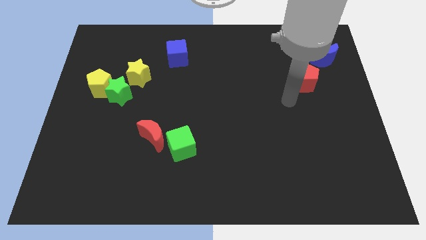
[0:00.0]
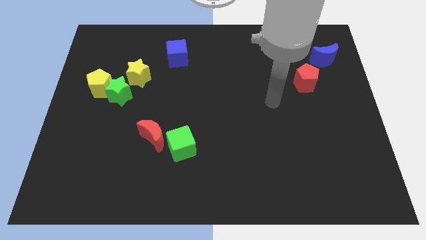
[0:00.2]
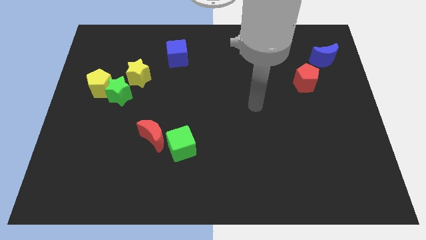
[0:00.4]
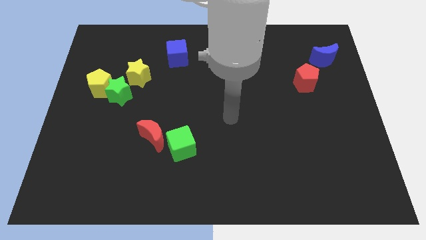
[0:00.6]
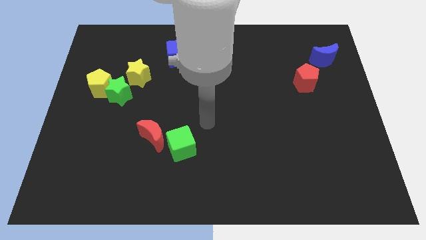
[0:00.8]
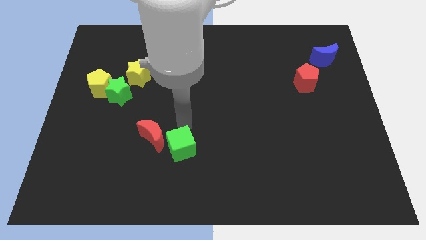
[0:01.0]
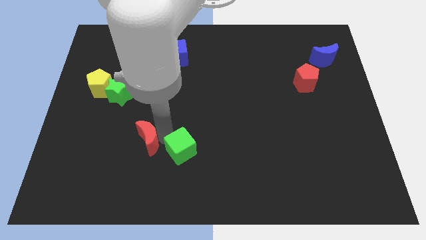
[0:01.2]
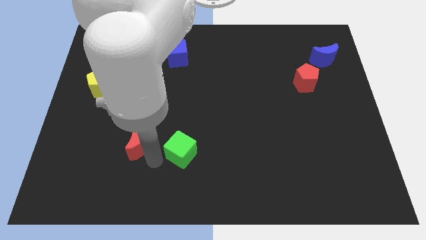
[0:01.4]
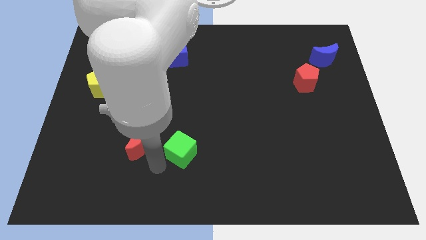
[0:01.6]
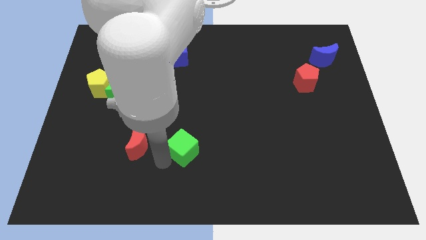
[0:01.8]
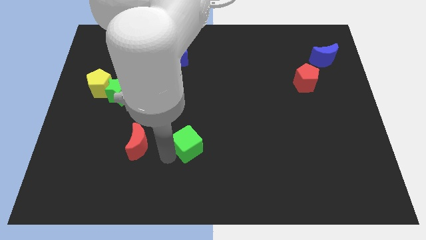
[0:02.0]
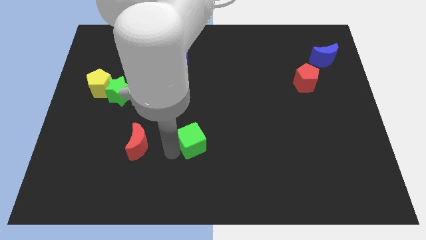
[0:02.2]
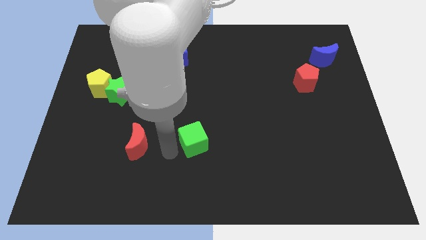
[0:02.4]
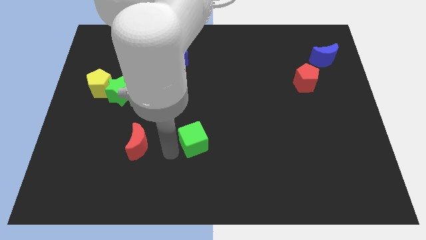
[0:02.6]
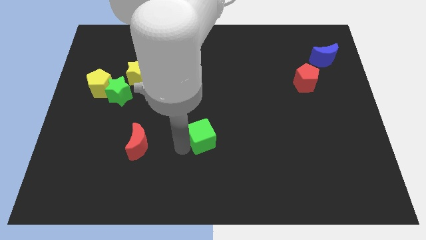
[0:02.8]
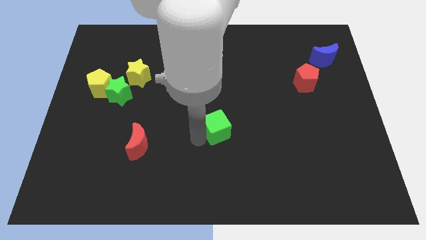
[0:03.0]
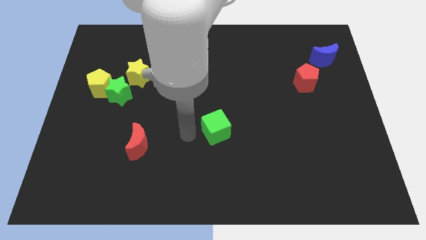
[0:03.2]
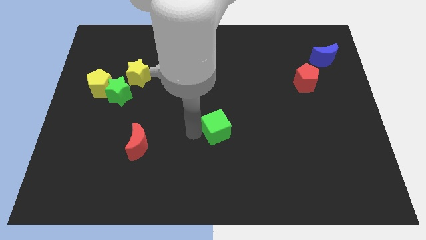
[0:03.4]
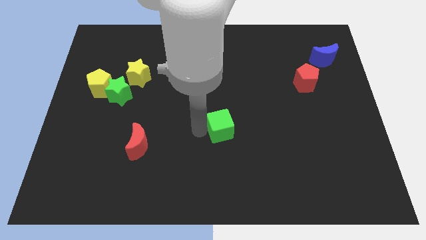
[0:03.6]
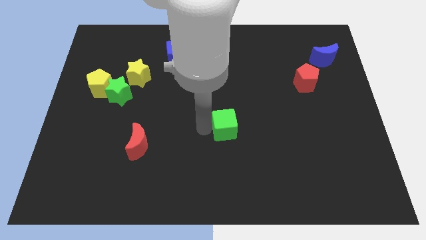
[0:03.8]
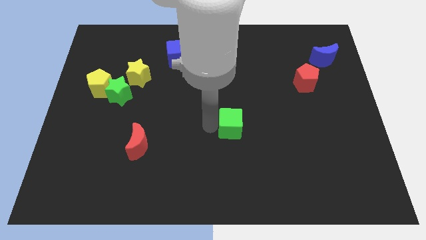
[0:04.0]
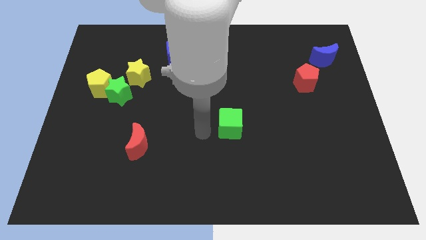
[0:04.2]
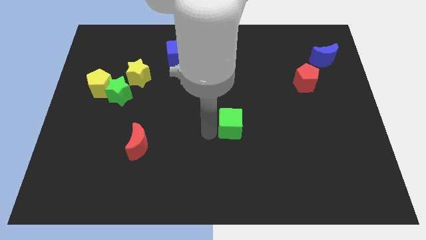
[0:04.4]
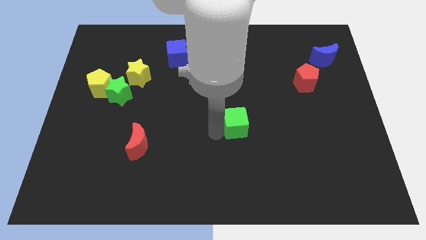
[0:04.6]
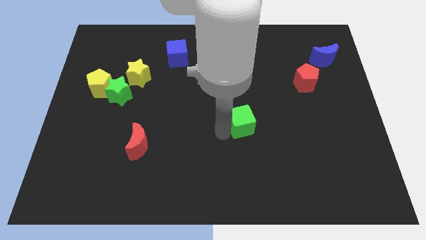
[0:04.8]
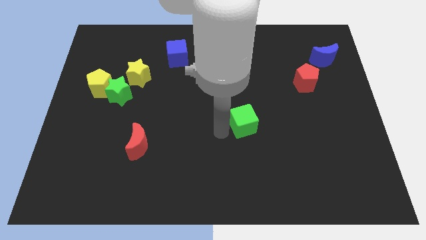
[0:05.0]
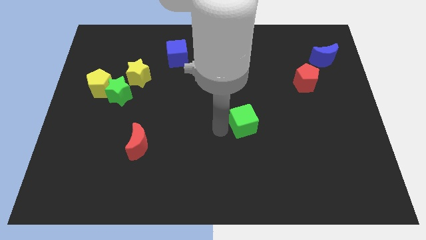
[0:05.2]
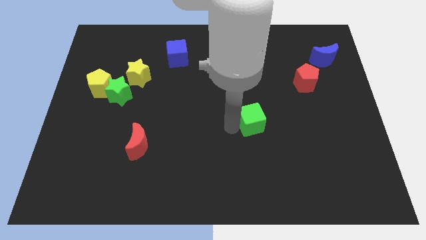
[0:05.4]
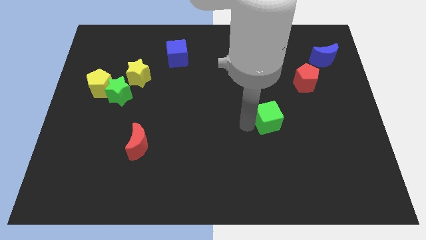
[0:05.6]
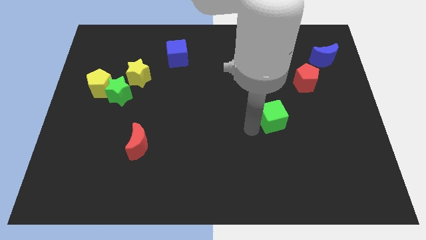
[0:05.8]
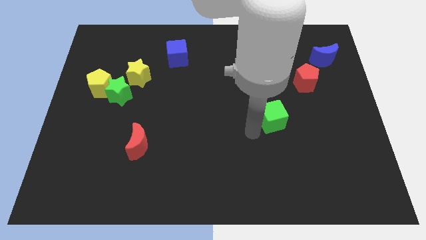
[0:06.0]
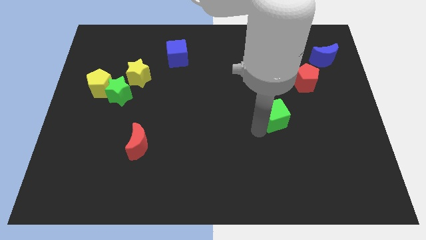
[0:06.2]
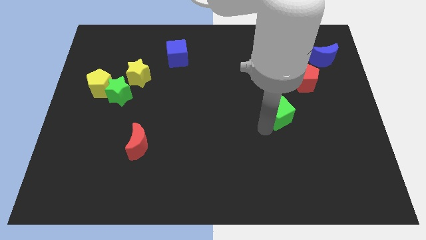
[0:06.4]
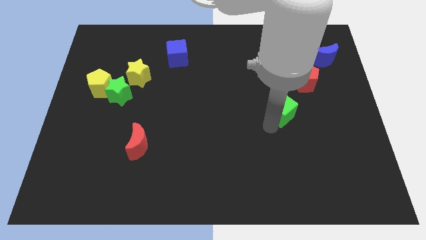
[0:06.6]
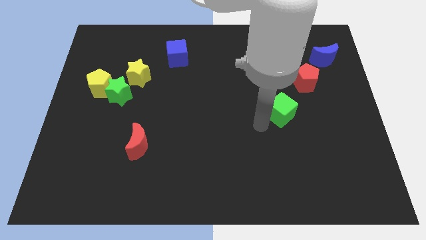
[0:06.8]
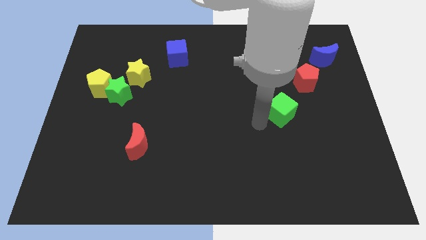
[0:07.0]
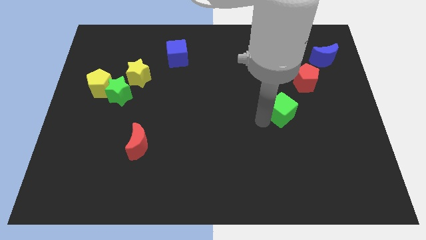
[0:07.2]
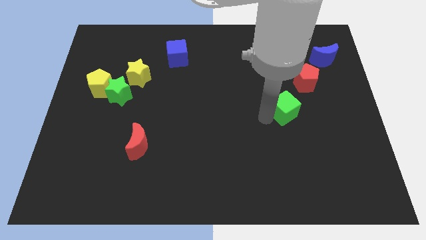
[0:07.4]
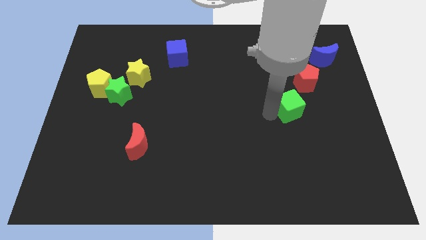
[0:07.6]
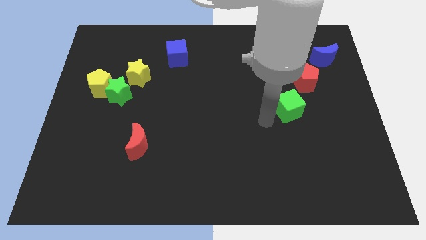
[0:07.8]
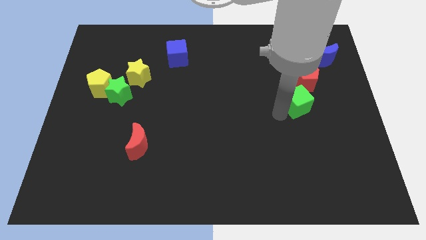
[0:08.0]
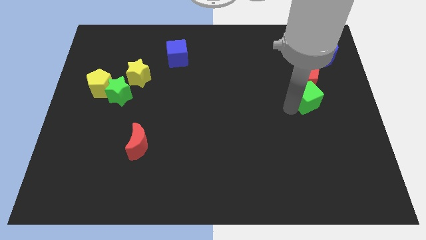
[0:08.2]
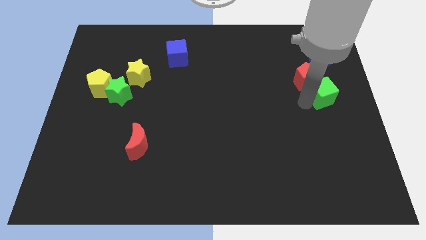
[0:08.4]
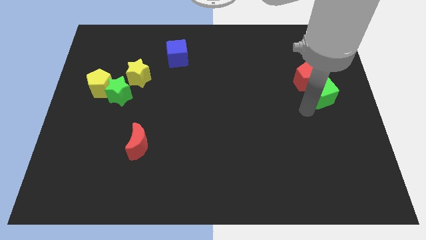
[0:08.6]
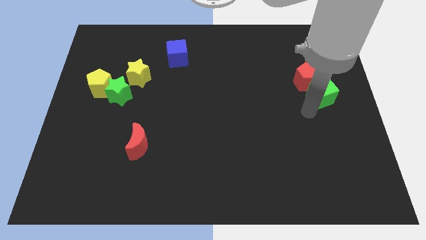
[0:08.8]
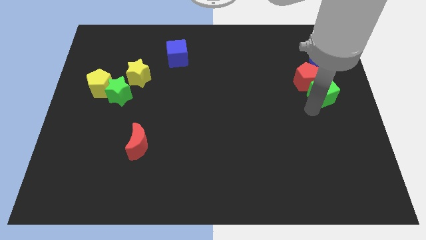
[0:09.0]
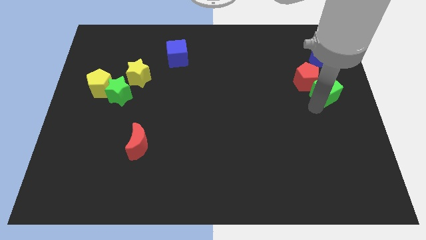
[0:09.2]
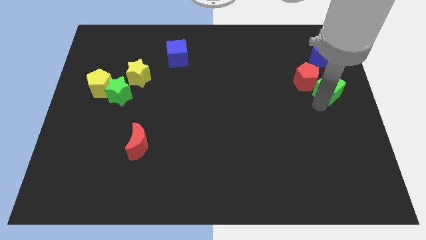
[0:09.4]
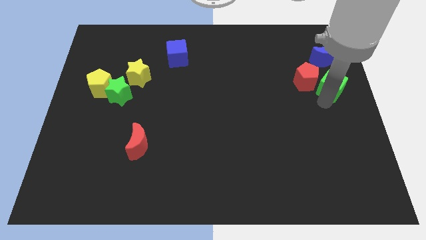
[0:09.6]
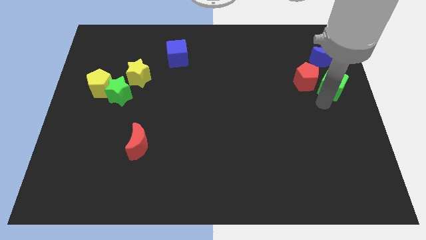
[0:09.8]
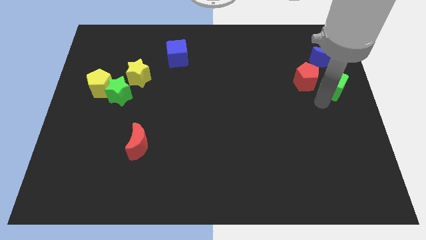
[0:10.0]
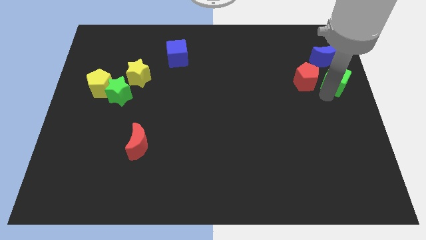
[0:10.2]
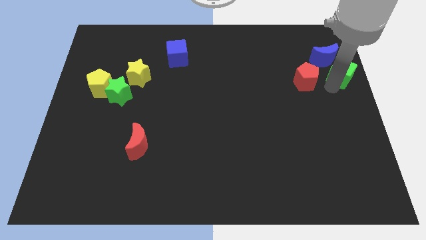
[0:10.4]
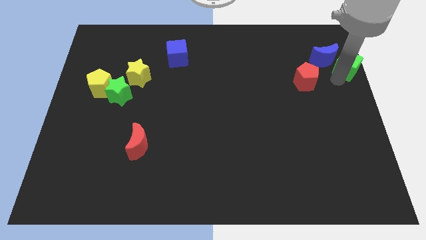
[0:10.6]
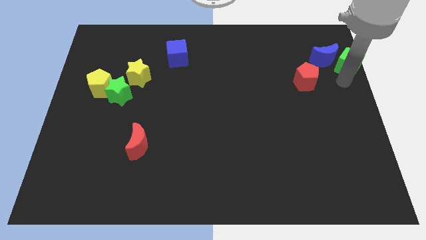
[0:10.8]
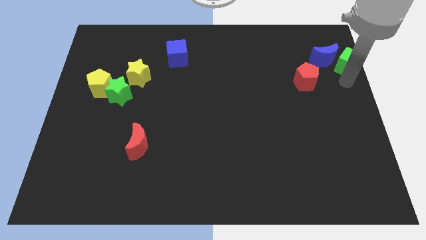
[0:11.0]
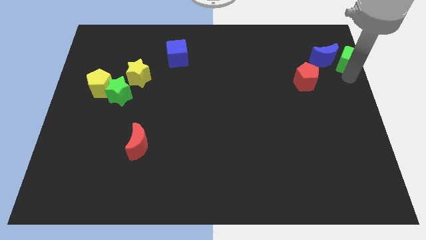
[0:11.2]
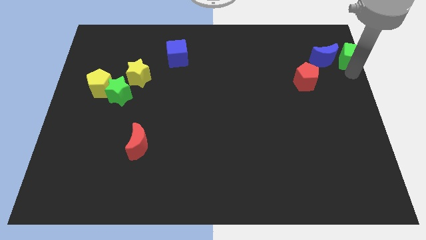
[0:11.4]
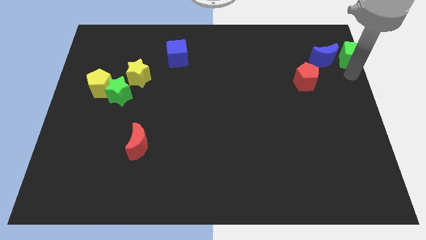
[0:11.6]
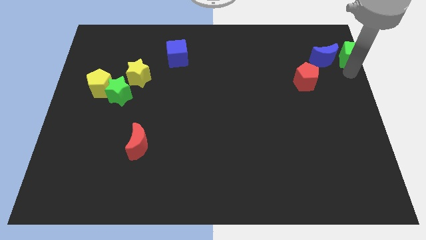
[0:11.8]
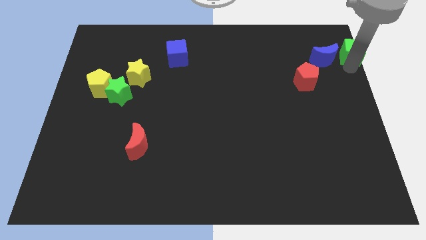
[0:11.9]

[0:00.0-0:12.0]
move the green cube to the upper right corner

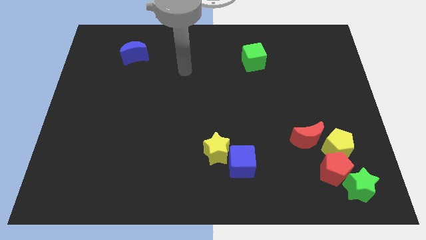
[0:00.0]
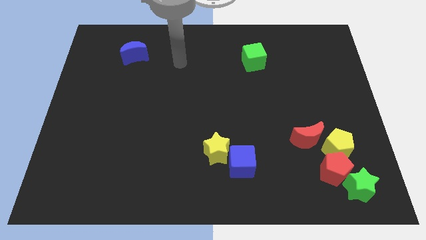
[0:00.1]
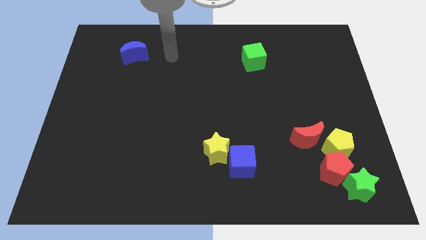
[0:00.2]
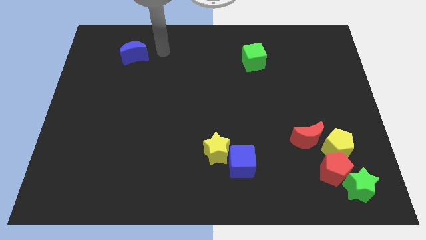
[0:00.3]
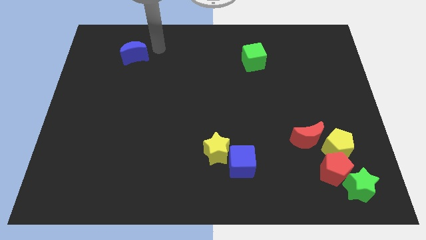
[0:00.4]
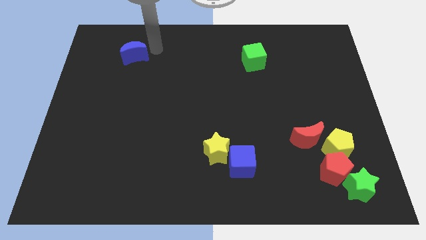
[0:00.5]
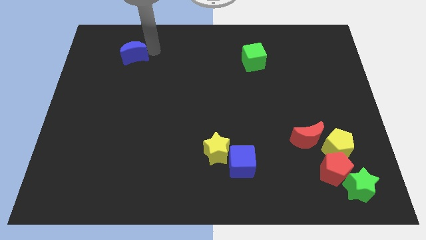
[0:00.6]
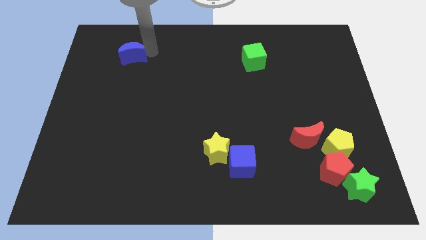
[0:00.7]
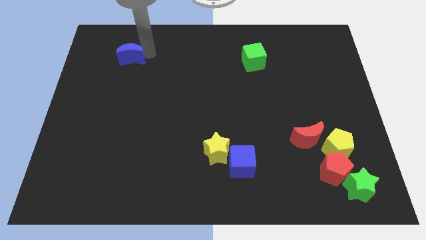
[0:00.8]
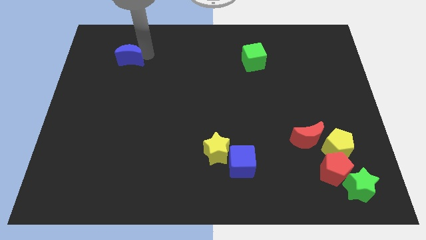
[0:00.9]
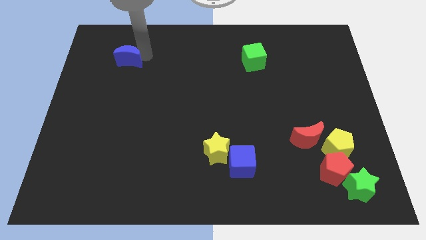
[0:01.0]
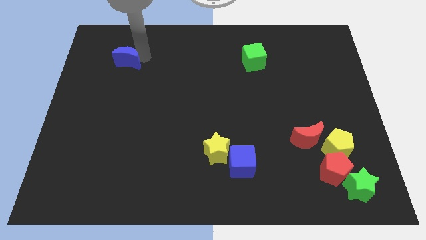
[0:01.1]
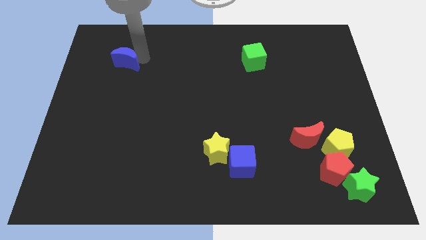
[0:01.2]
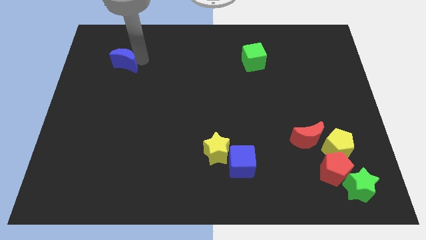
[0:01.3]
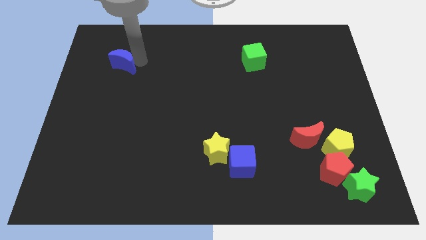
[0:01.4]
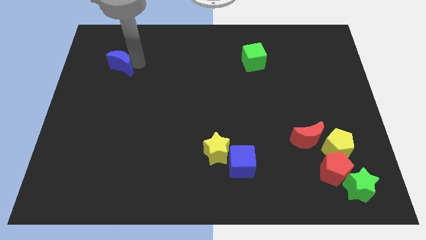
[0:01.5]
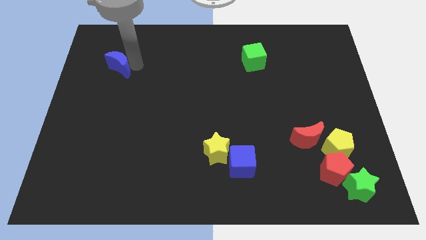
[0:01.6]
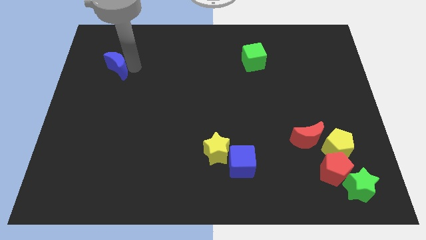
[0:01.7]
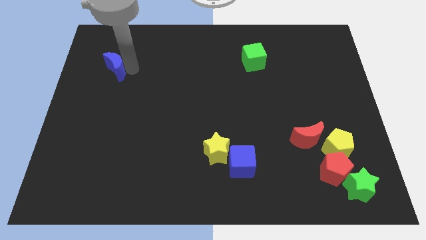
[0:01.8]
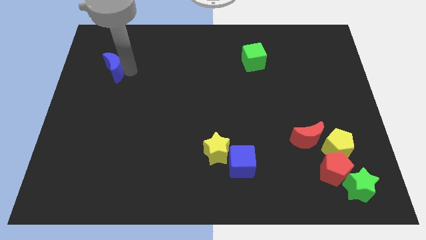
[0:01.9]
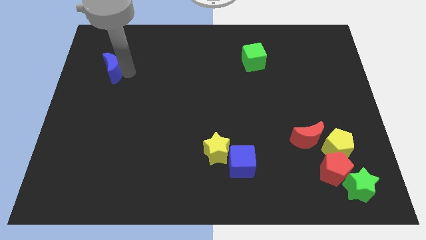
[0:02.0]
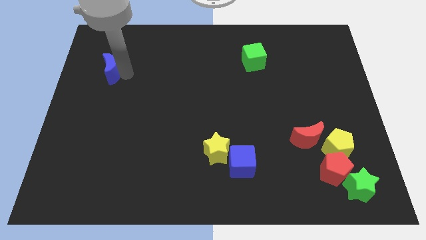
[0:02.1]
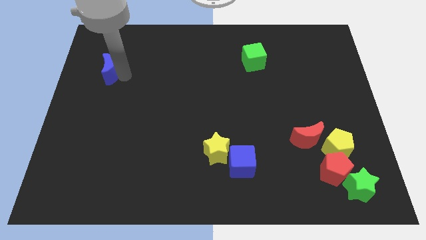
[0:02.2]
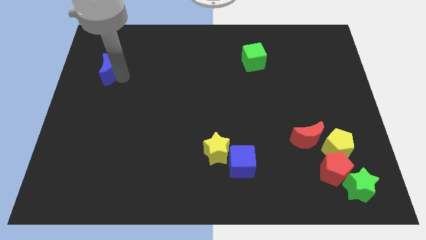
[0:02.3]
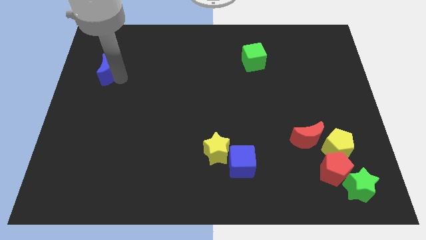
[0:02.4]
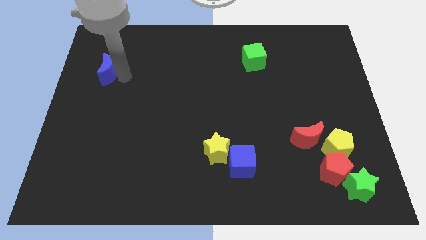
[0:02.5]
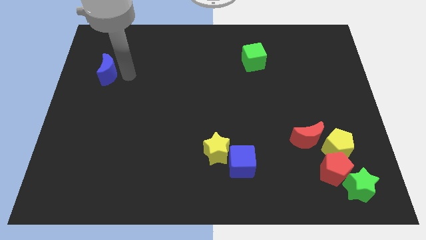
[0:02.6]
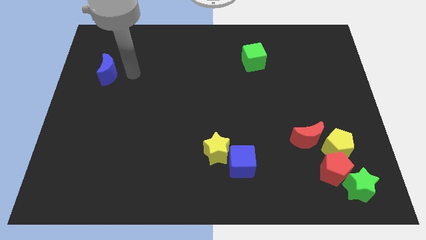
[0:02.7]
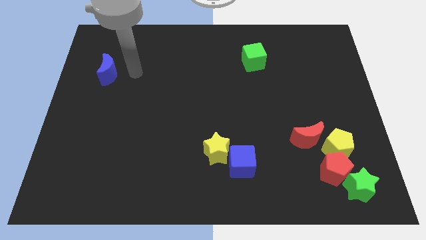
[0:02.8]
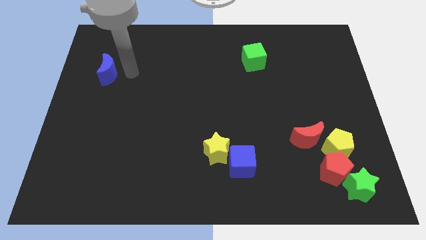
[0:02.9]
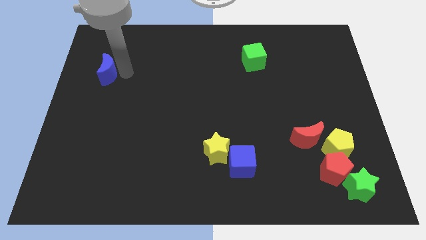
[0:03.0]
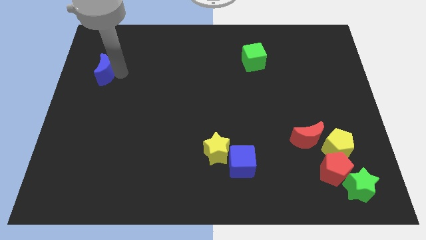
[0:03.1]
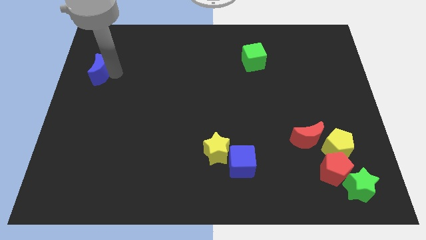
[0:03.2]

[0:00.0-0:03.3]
push the blue moon to the left side
